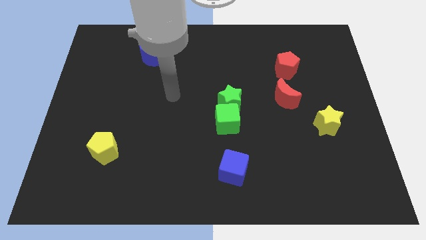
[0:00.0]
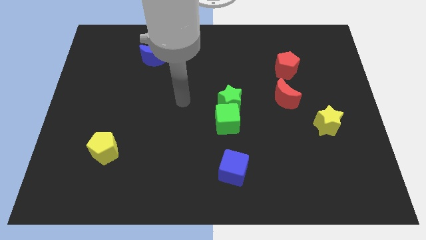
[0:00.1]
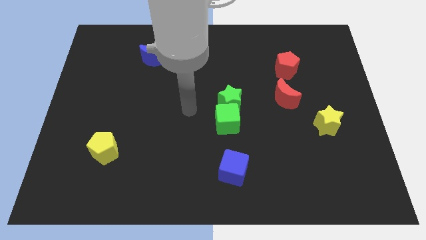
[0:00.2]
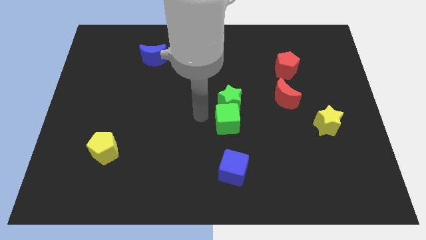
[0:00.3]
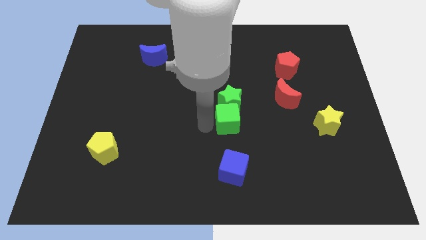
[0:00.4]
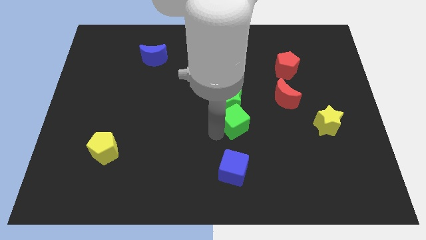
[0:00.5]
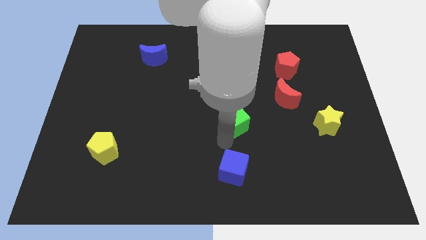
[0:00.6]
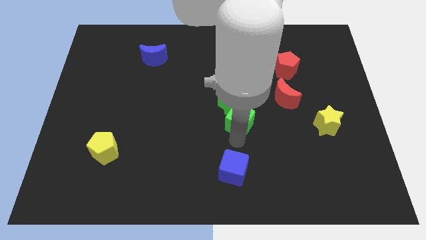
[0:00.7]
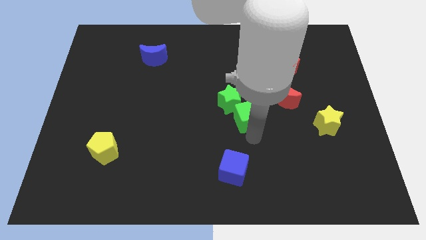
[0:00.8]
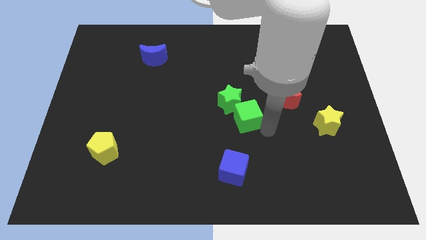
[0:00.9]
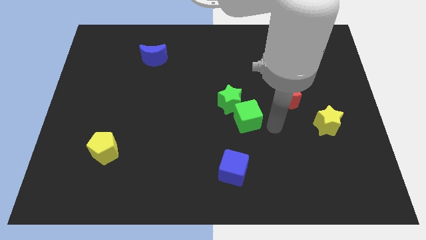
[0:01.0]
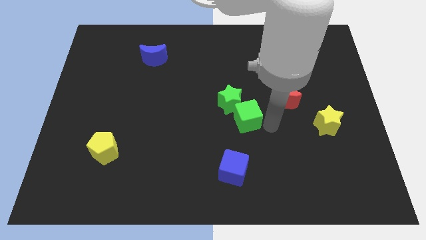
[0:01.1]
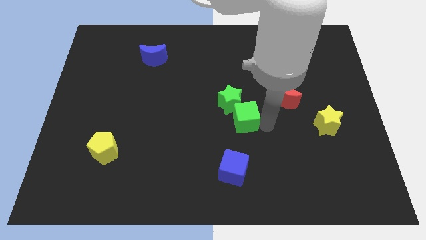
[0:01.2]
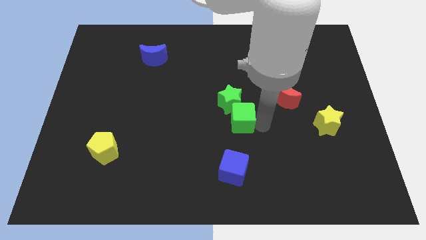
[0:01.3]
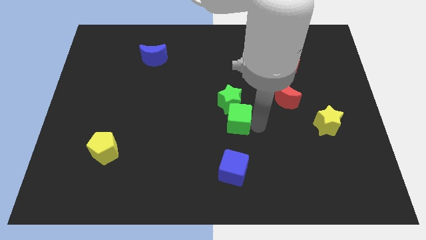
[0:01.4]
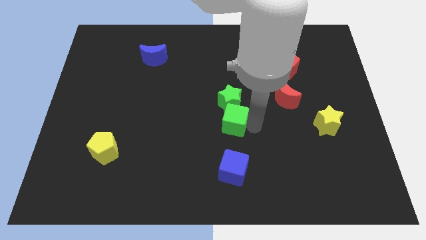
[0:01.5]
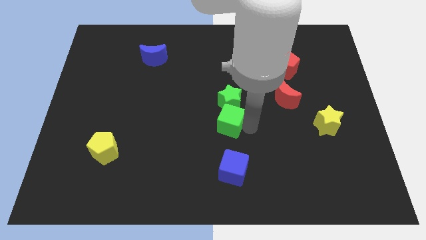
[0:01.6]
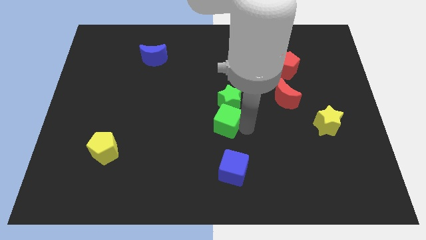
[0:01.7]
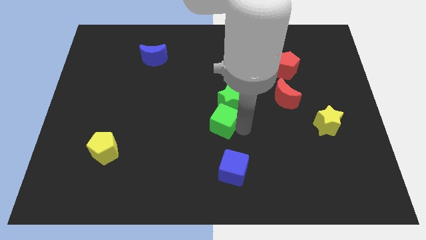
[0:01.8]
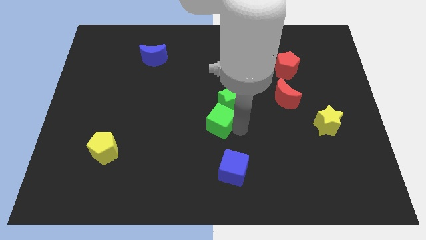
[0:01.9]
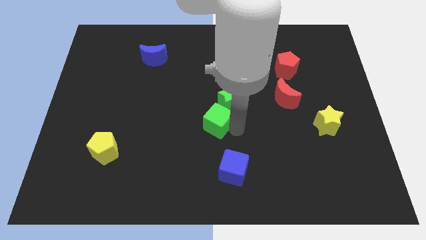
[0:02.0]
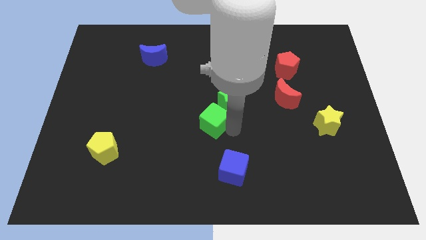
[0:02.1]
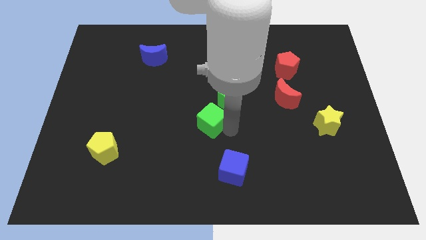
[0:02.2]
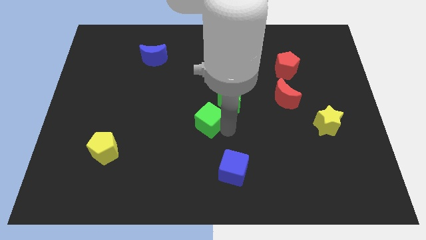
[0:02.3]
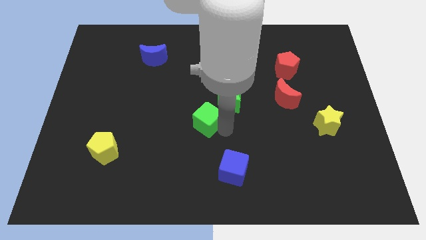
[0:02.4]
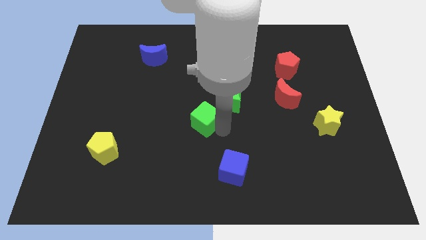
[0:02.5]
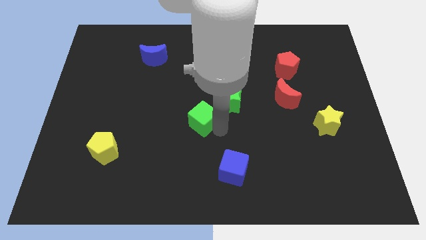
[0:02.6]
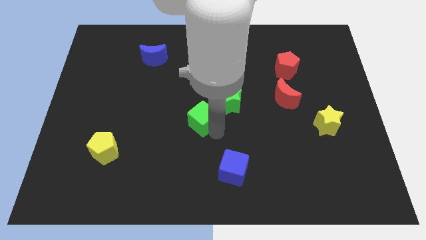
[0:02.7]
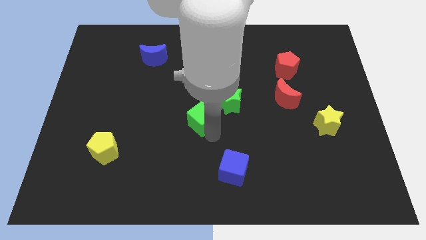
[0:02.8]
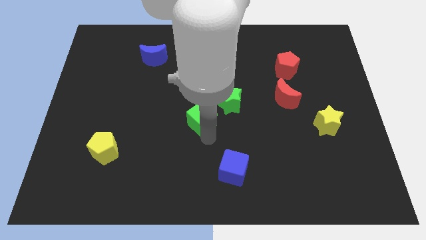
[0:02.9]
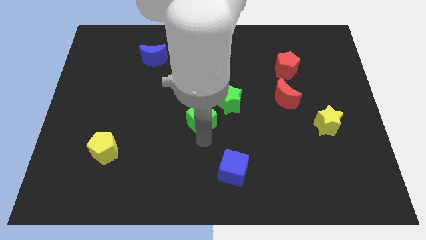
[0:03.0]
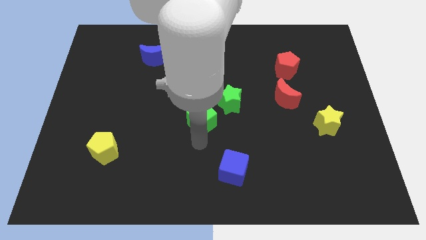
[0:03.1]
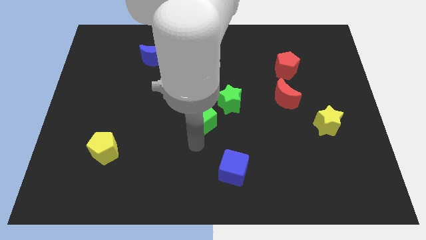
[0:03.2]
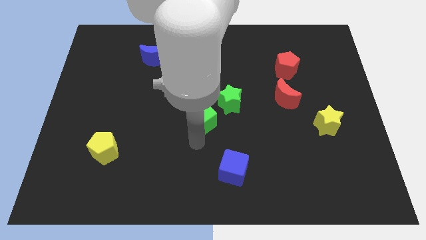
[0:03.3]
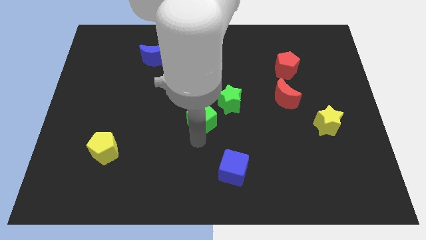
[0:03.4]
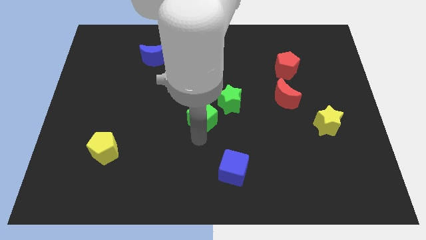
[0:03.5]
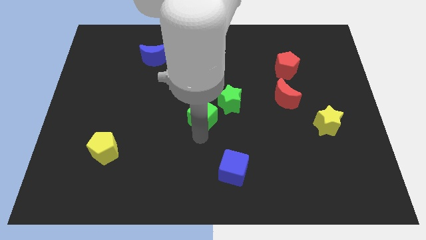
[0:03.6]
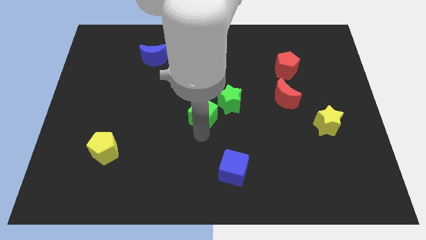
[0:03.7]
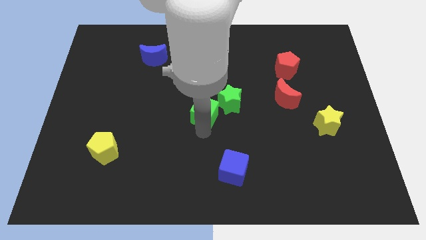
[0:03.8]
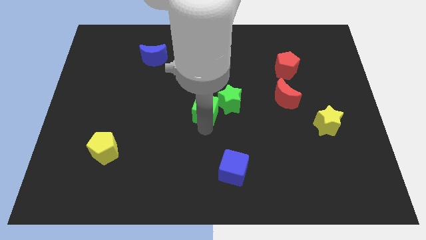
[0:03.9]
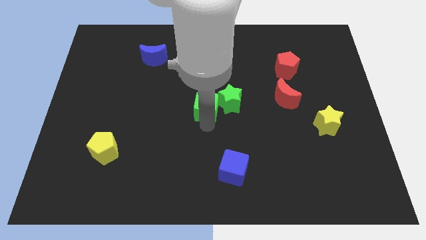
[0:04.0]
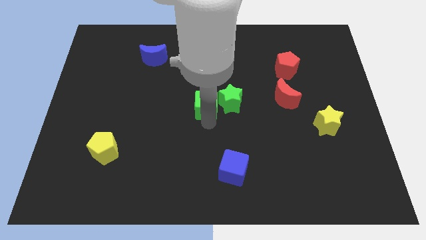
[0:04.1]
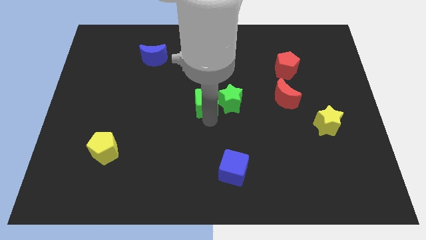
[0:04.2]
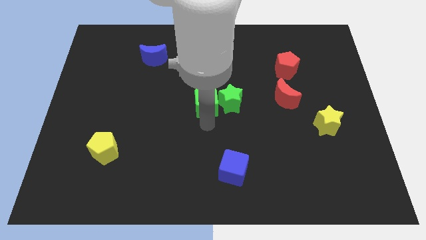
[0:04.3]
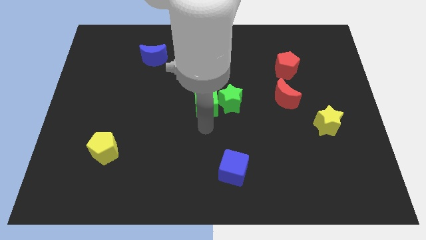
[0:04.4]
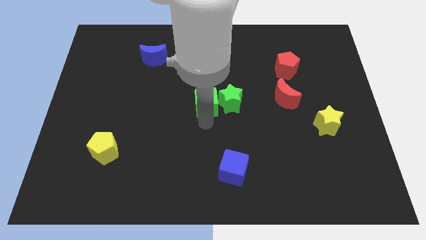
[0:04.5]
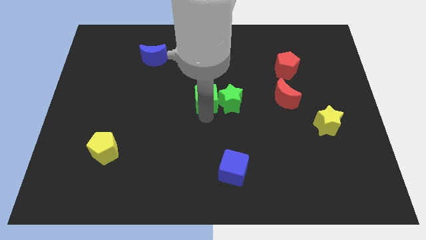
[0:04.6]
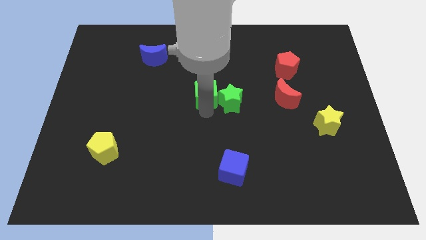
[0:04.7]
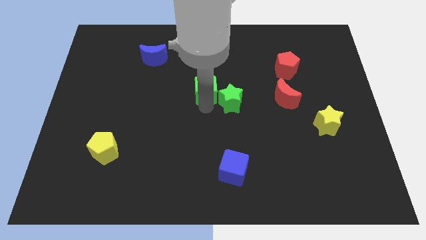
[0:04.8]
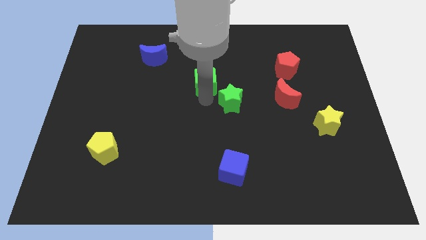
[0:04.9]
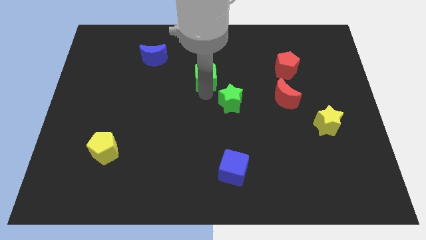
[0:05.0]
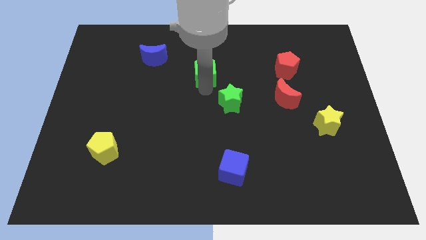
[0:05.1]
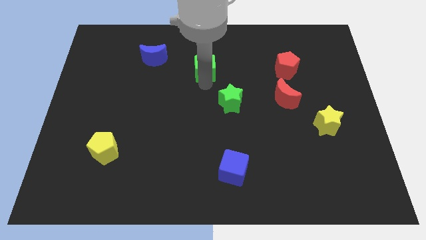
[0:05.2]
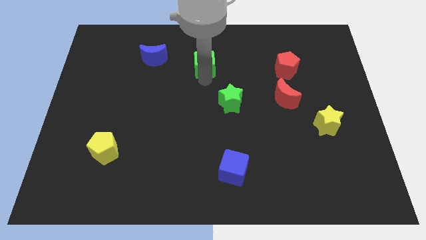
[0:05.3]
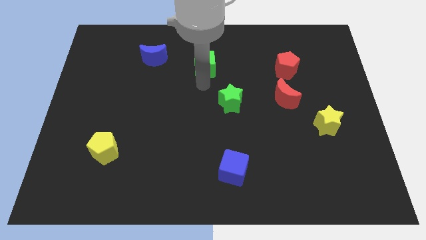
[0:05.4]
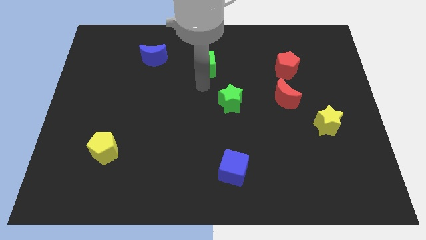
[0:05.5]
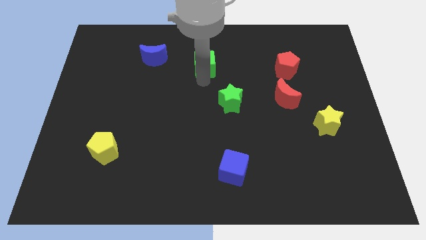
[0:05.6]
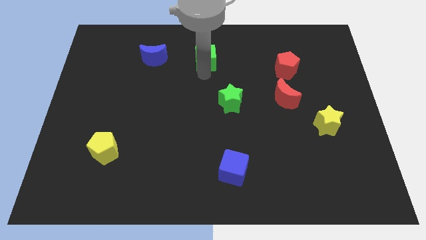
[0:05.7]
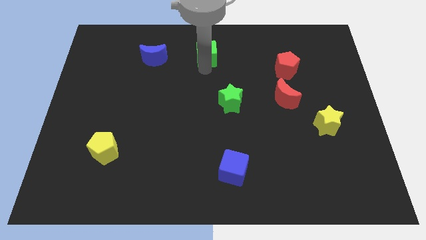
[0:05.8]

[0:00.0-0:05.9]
move the green cube to the top side

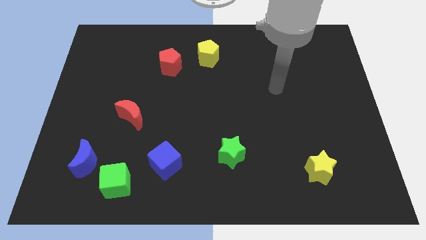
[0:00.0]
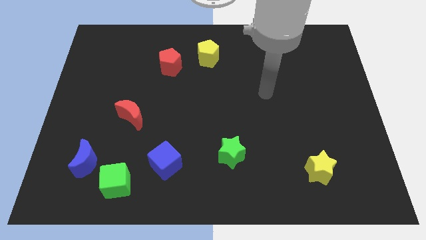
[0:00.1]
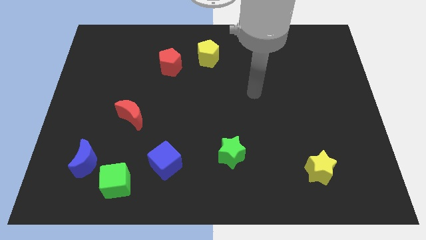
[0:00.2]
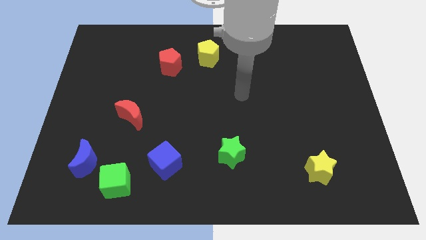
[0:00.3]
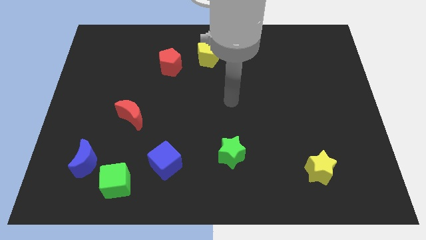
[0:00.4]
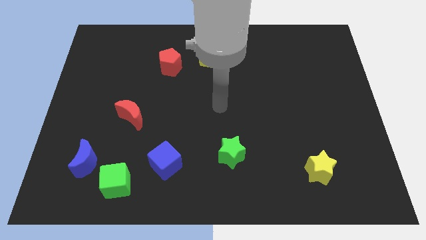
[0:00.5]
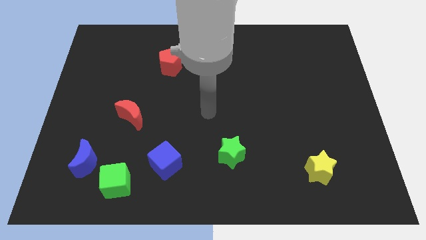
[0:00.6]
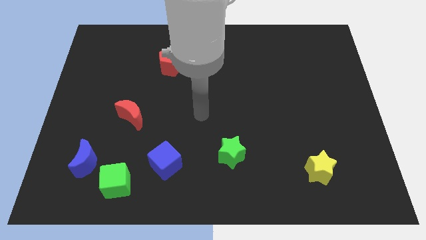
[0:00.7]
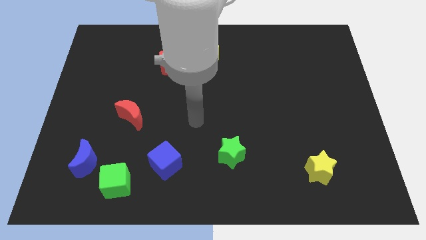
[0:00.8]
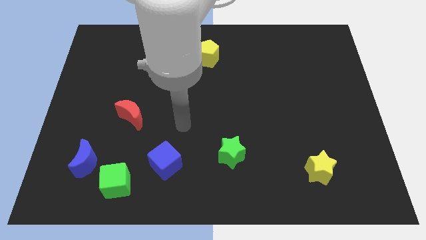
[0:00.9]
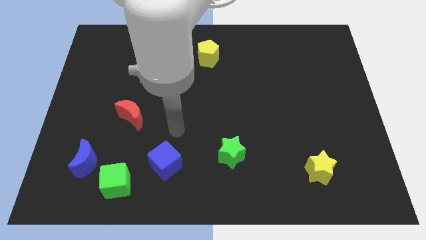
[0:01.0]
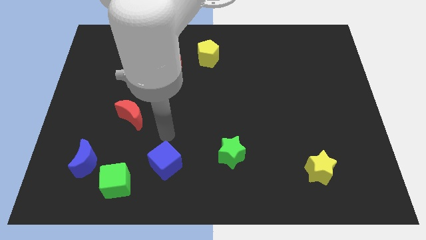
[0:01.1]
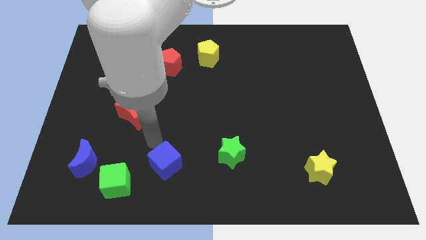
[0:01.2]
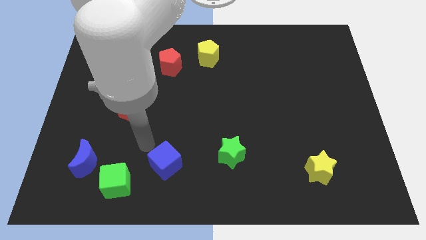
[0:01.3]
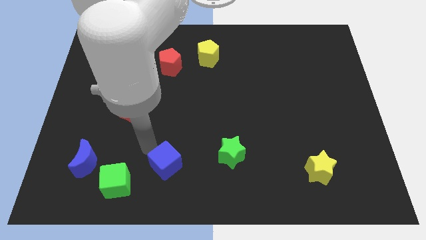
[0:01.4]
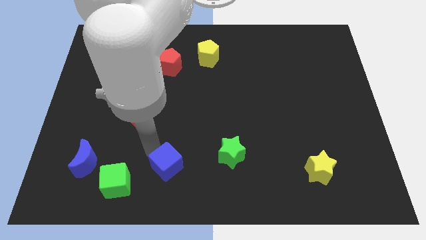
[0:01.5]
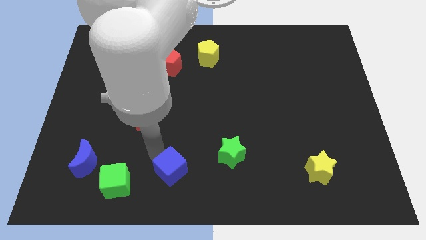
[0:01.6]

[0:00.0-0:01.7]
push the blue cube to the bottom side
